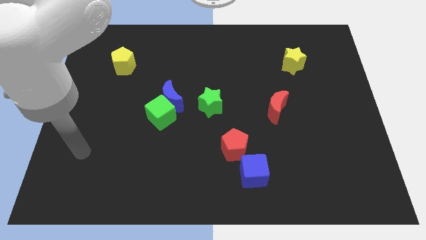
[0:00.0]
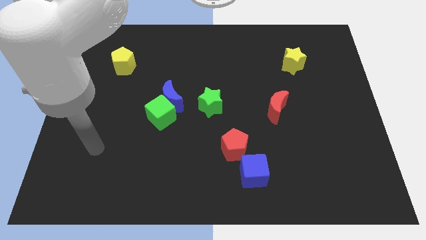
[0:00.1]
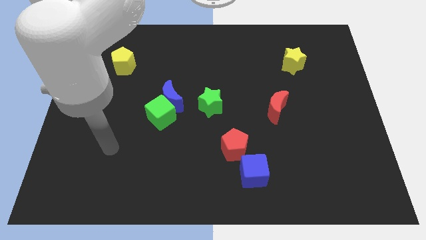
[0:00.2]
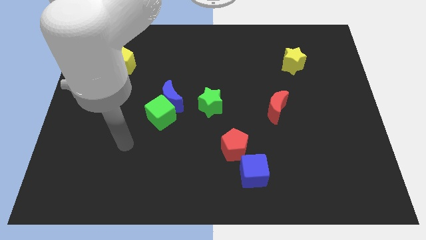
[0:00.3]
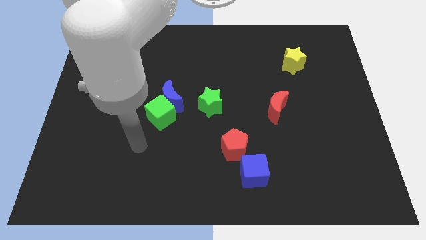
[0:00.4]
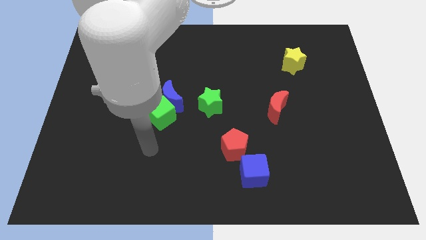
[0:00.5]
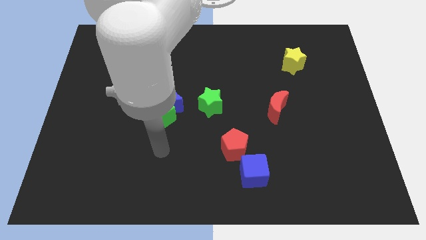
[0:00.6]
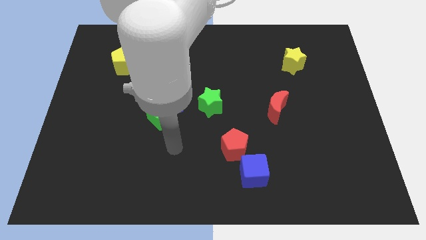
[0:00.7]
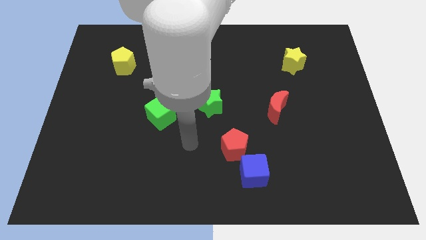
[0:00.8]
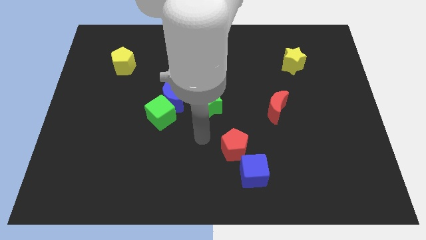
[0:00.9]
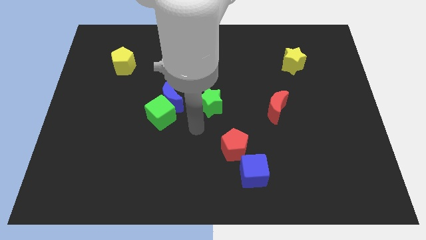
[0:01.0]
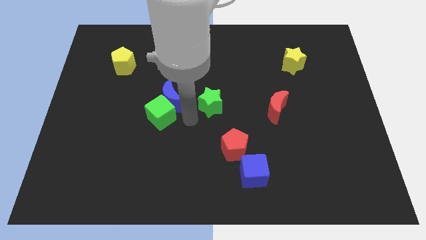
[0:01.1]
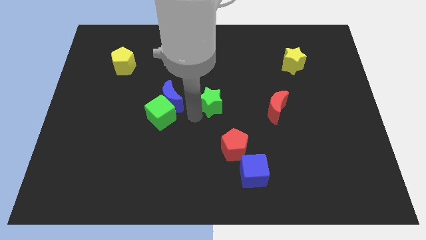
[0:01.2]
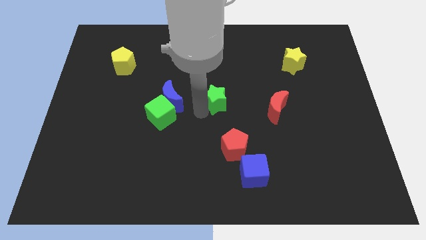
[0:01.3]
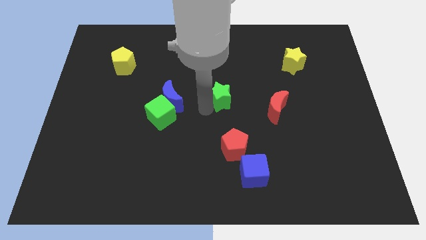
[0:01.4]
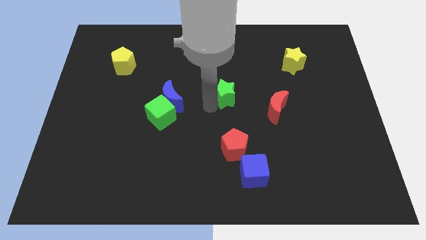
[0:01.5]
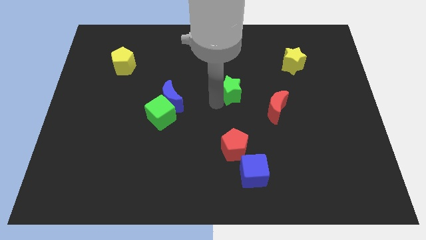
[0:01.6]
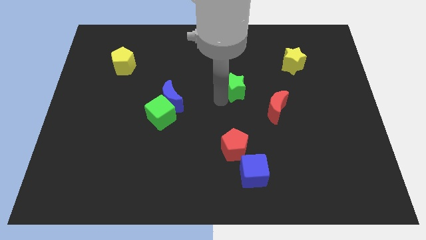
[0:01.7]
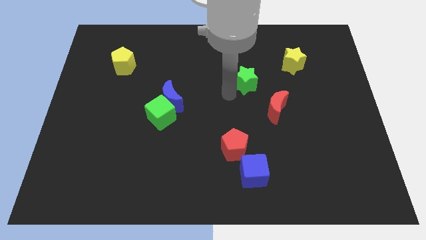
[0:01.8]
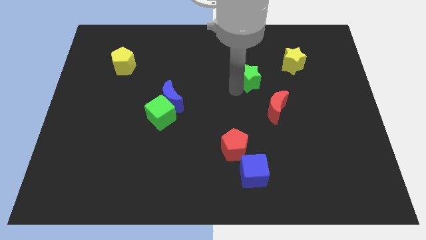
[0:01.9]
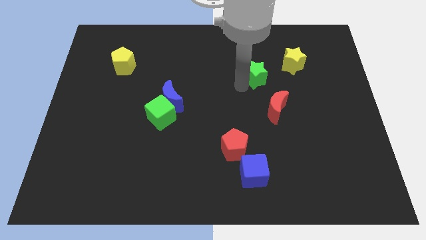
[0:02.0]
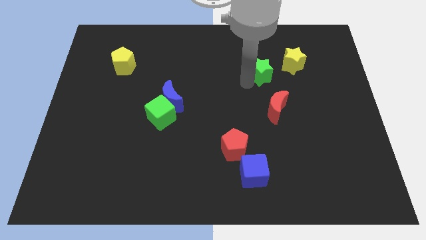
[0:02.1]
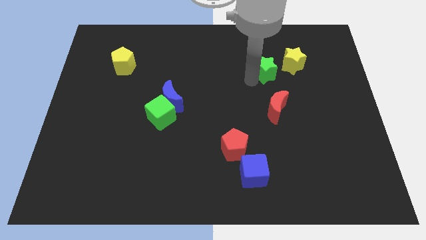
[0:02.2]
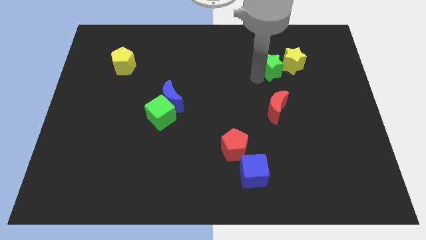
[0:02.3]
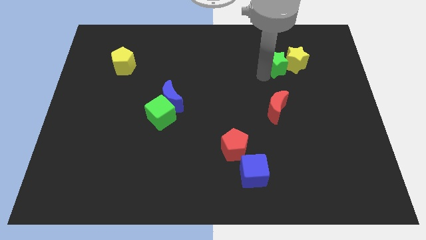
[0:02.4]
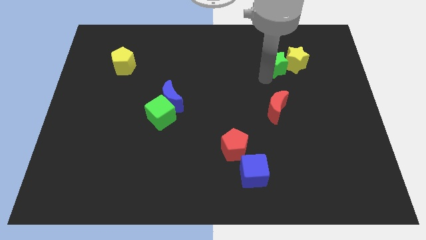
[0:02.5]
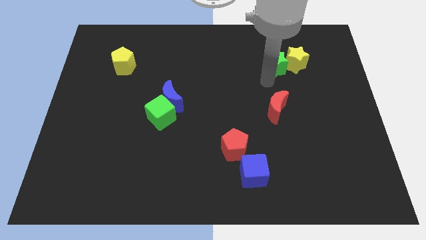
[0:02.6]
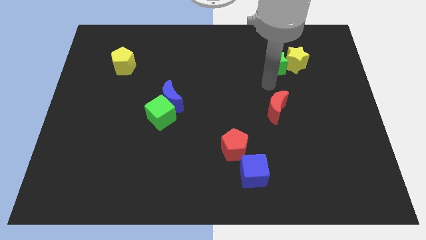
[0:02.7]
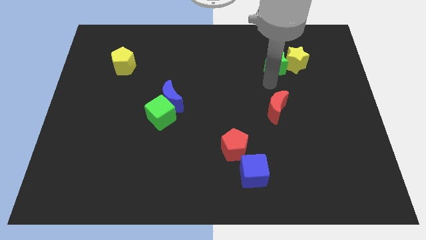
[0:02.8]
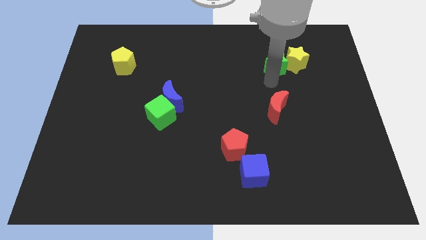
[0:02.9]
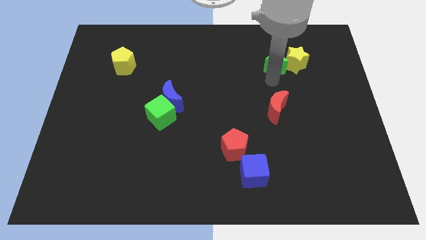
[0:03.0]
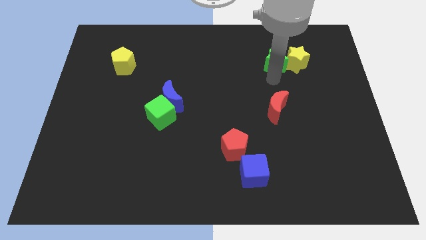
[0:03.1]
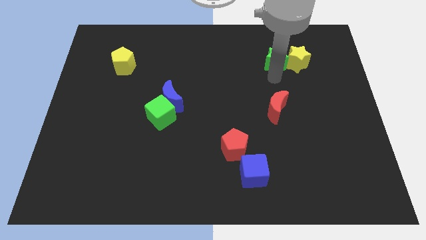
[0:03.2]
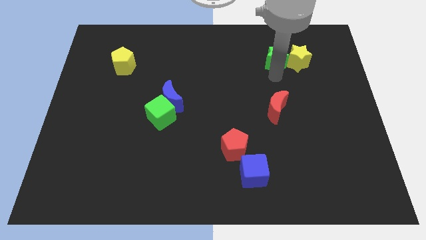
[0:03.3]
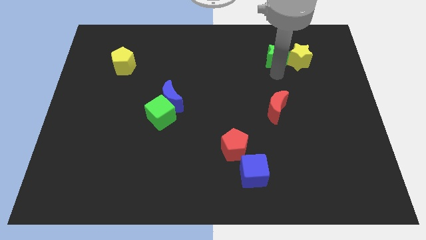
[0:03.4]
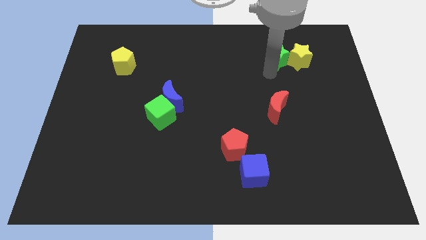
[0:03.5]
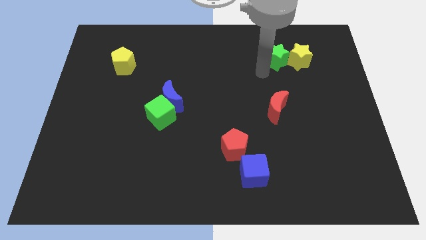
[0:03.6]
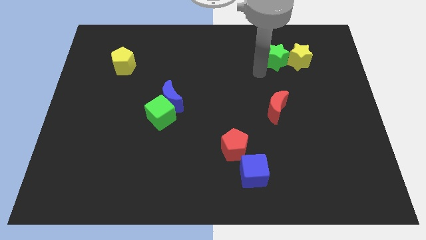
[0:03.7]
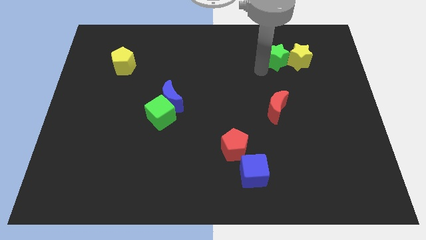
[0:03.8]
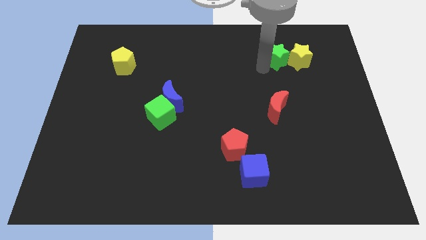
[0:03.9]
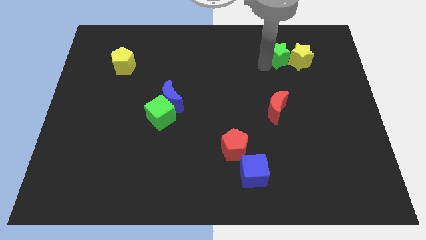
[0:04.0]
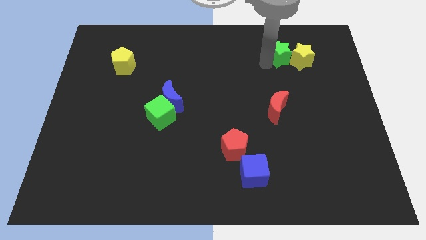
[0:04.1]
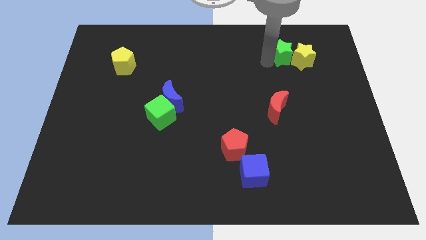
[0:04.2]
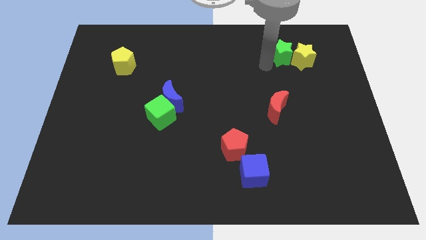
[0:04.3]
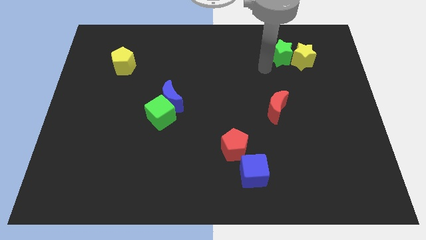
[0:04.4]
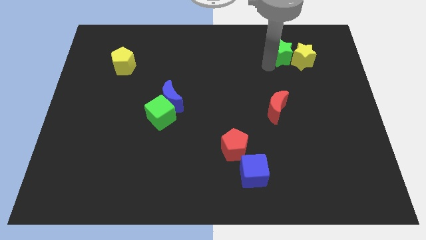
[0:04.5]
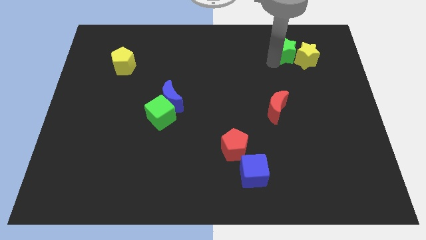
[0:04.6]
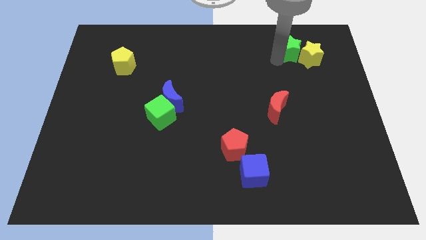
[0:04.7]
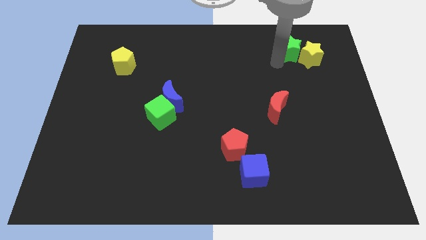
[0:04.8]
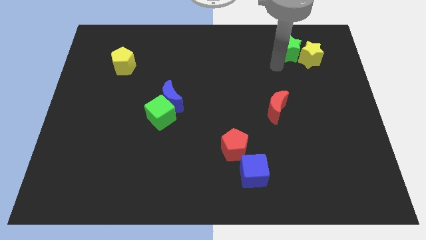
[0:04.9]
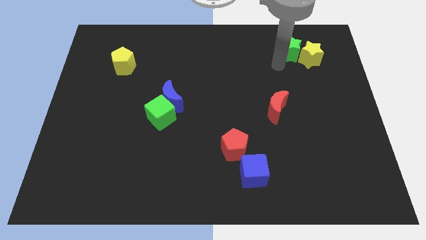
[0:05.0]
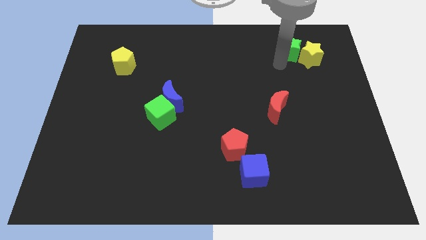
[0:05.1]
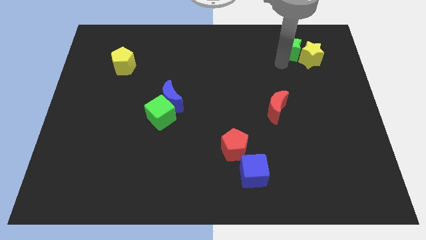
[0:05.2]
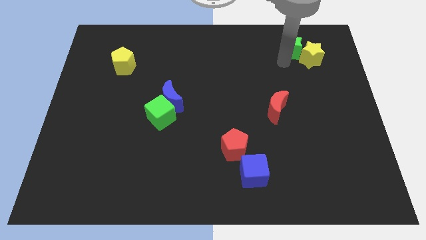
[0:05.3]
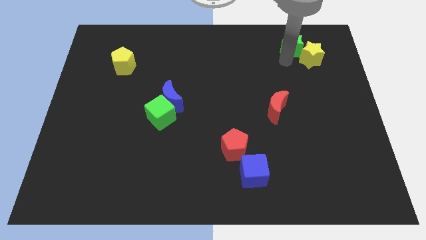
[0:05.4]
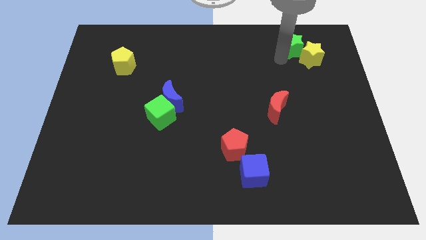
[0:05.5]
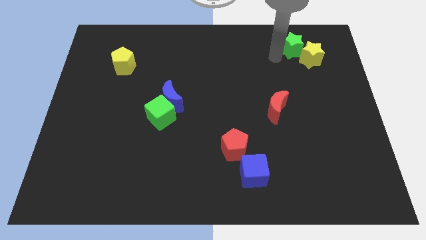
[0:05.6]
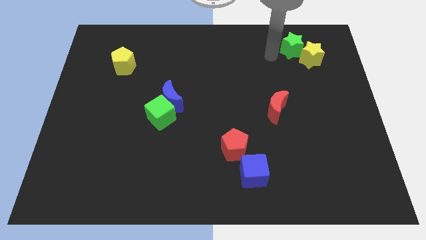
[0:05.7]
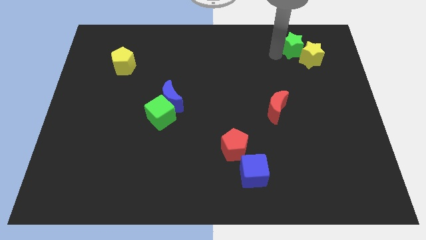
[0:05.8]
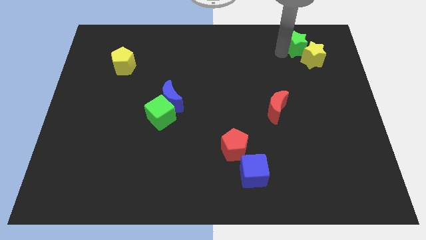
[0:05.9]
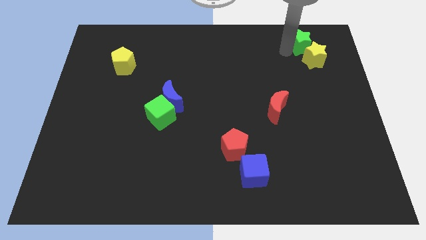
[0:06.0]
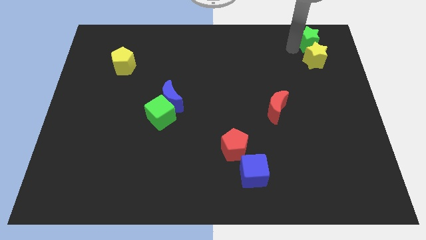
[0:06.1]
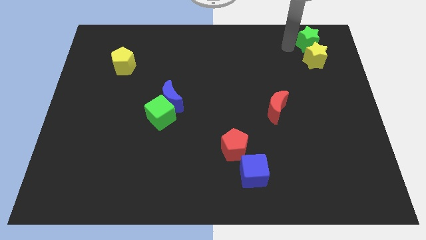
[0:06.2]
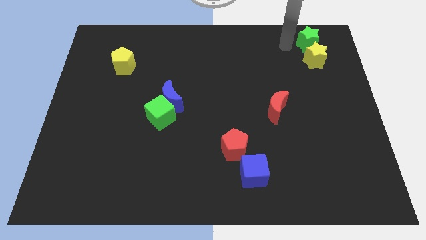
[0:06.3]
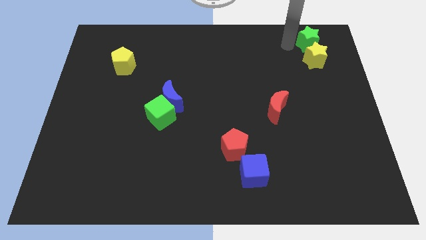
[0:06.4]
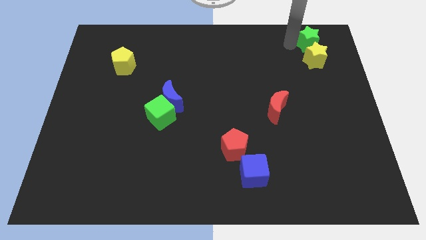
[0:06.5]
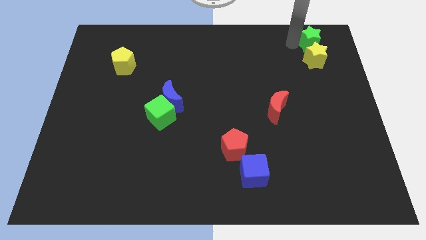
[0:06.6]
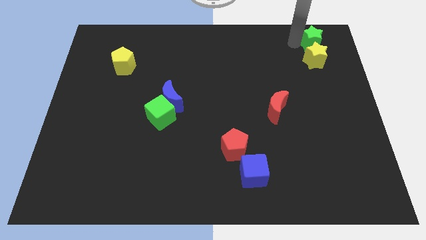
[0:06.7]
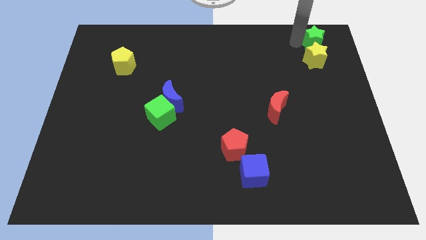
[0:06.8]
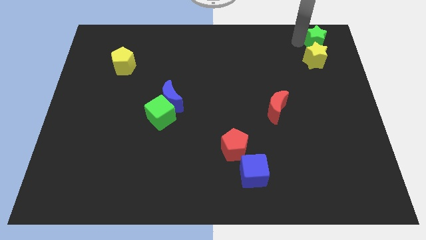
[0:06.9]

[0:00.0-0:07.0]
put the green star to the upper right corner
